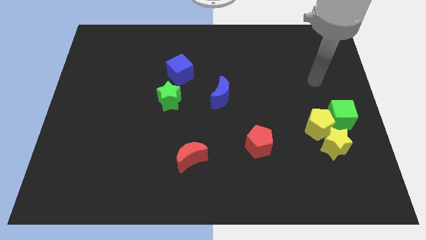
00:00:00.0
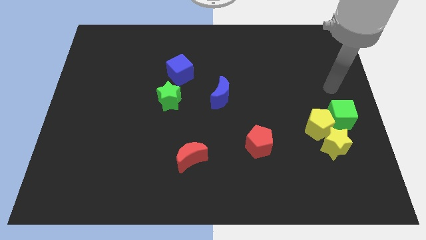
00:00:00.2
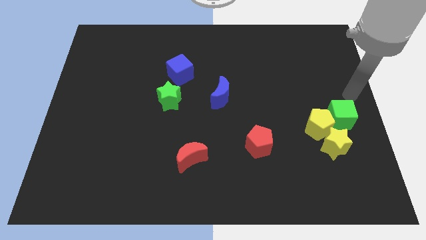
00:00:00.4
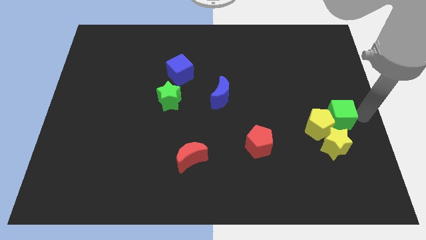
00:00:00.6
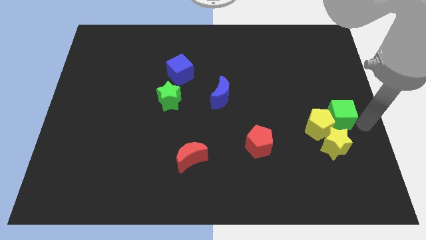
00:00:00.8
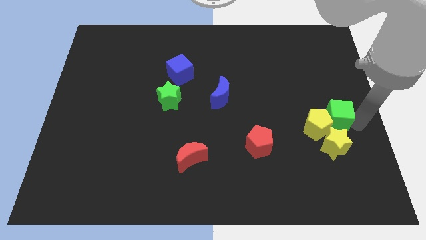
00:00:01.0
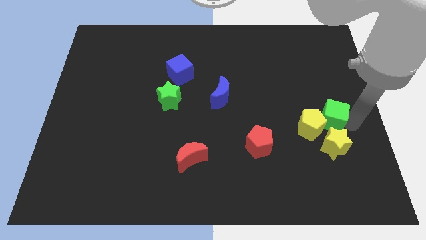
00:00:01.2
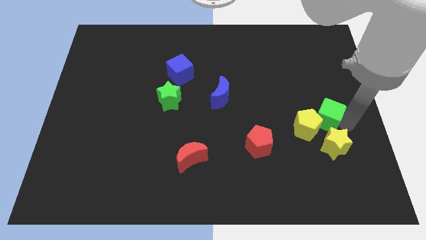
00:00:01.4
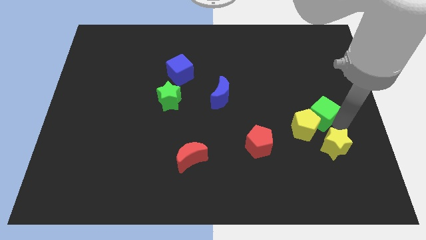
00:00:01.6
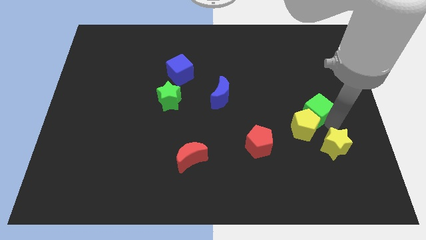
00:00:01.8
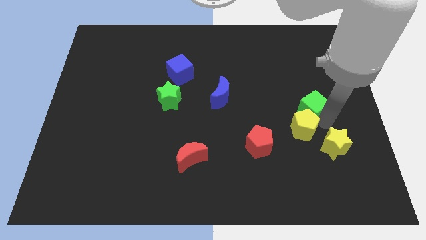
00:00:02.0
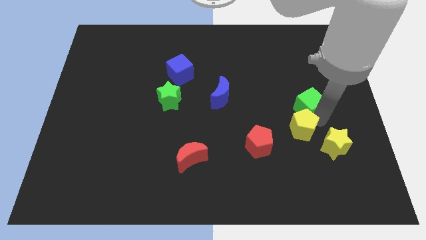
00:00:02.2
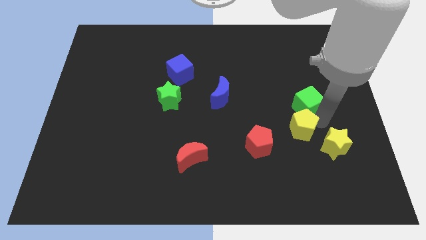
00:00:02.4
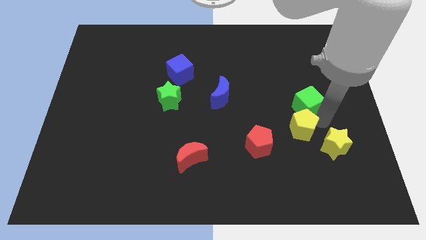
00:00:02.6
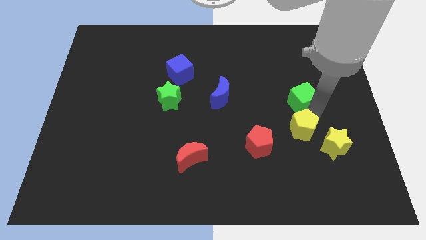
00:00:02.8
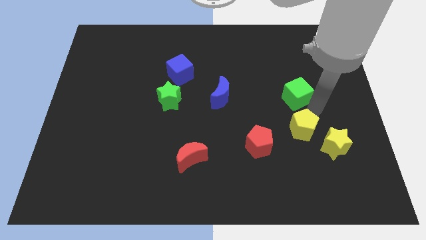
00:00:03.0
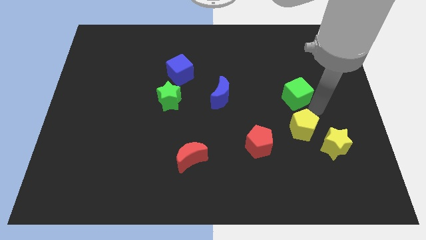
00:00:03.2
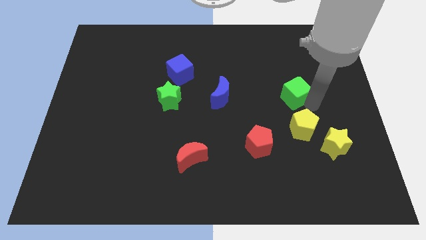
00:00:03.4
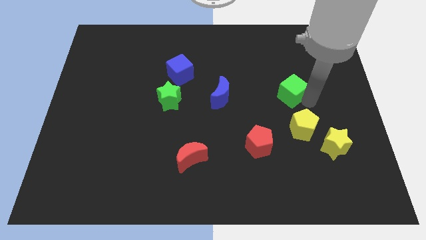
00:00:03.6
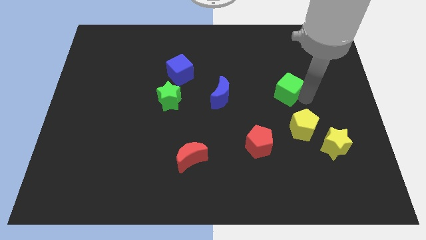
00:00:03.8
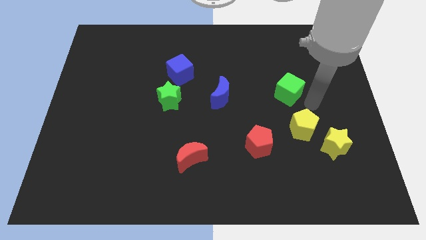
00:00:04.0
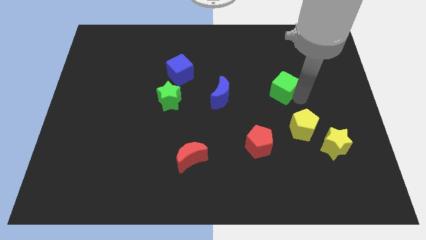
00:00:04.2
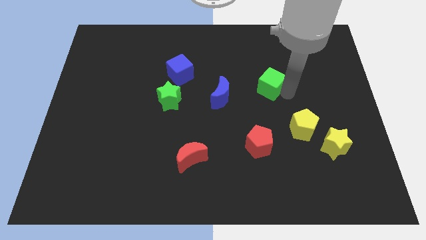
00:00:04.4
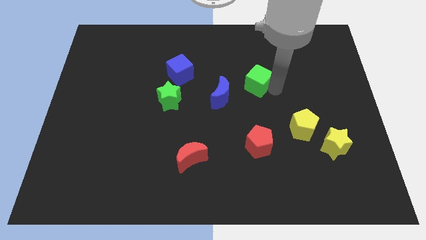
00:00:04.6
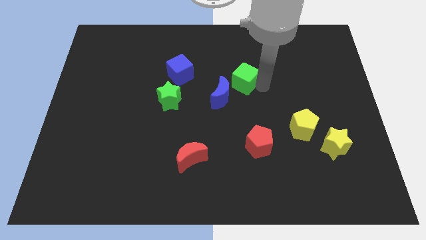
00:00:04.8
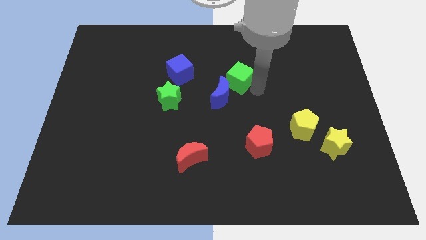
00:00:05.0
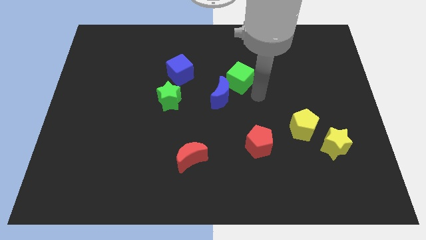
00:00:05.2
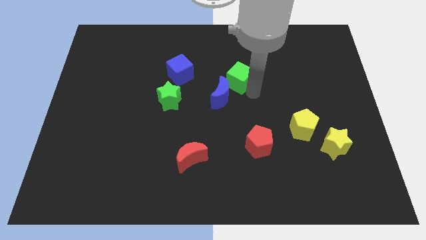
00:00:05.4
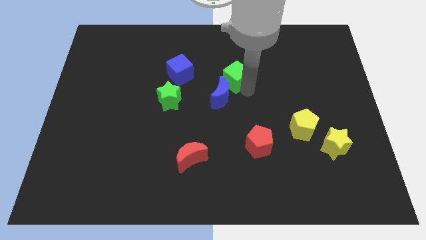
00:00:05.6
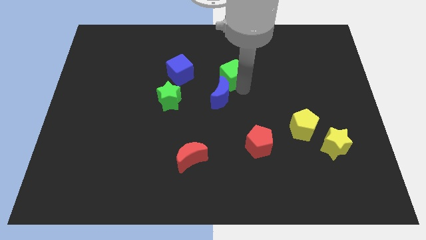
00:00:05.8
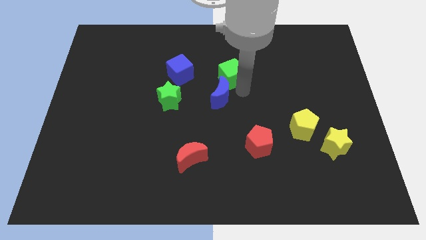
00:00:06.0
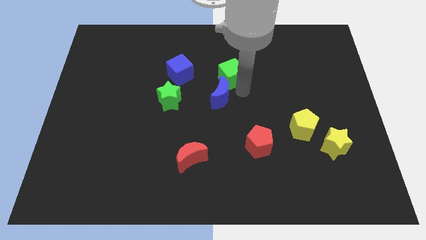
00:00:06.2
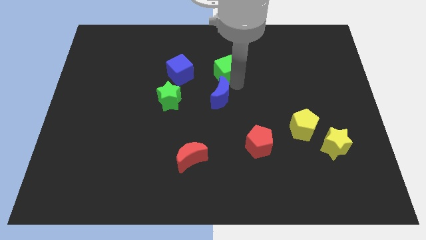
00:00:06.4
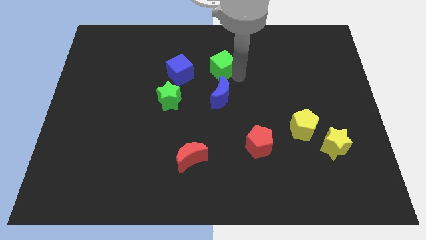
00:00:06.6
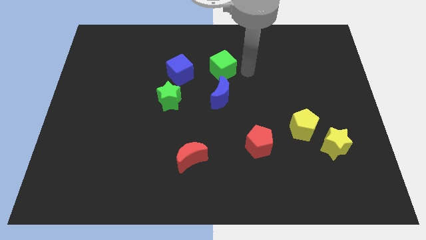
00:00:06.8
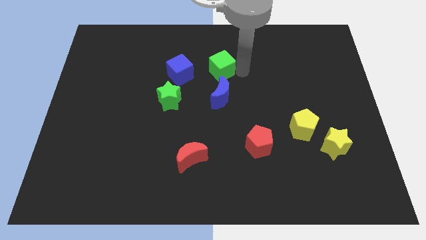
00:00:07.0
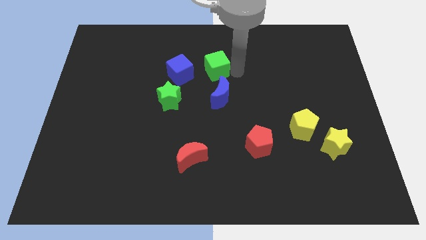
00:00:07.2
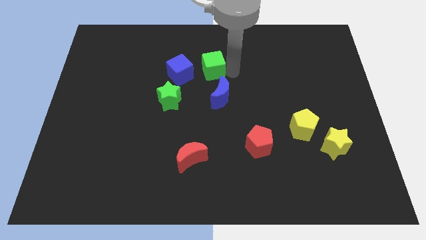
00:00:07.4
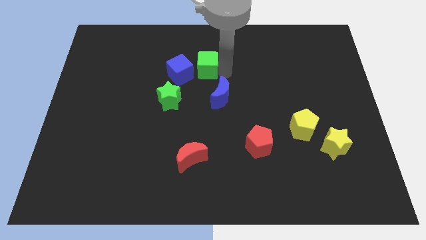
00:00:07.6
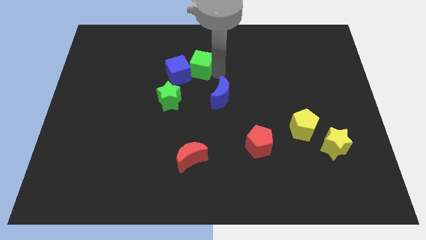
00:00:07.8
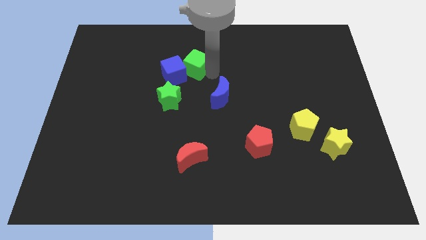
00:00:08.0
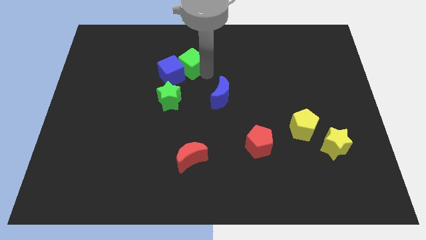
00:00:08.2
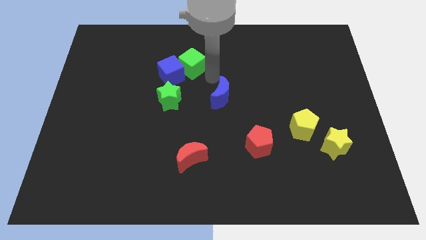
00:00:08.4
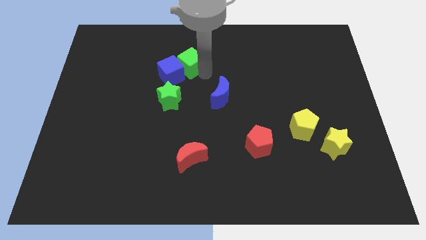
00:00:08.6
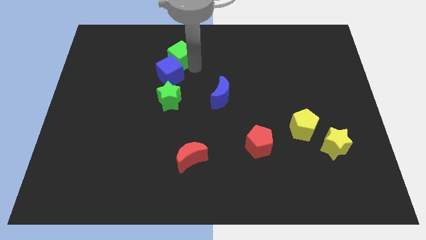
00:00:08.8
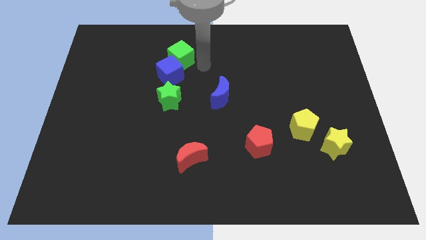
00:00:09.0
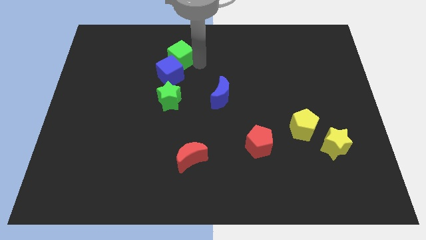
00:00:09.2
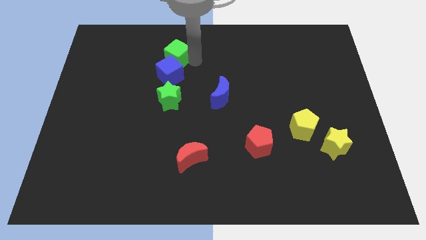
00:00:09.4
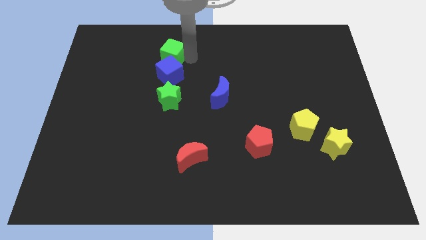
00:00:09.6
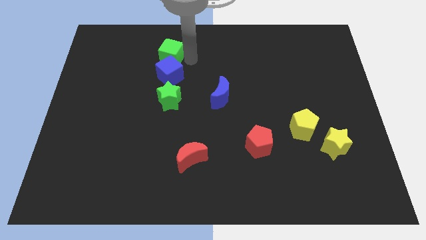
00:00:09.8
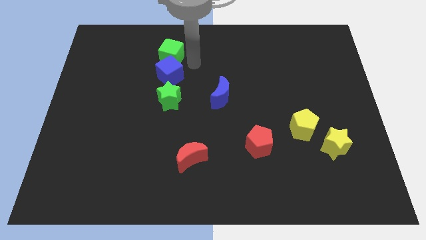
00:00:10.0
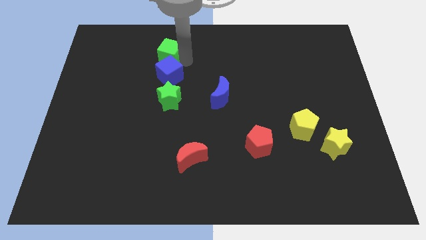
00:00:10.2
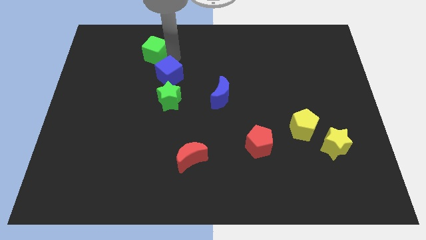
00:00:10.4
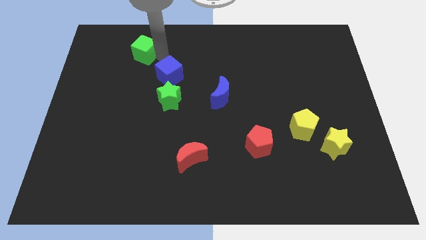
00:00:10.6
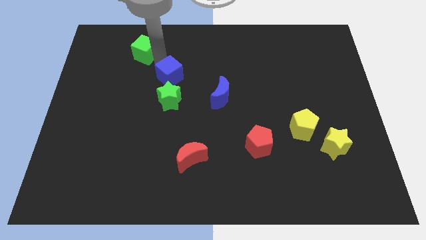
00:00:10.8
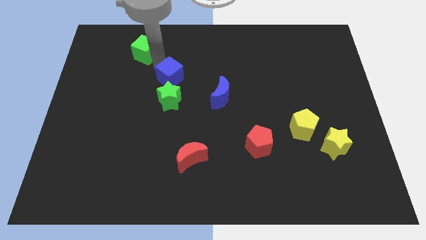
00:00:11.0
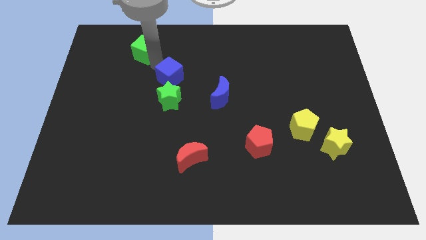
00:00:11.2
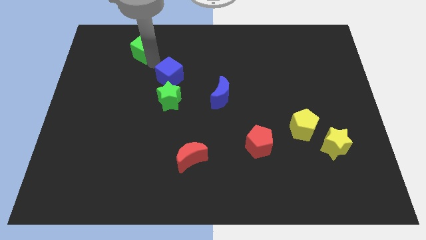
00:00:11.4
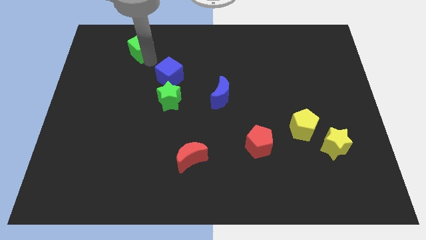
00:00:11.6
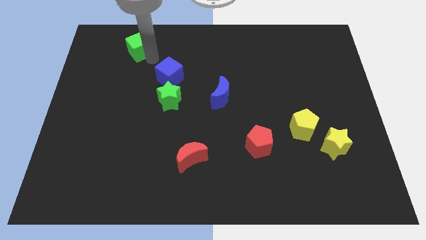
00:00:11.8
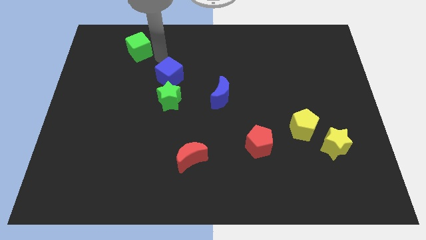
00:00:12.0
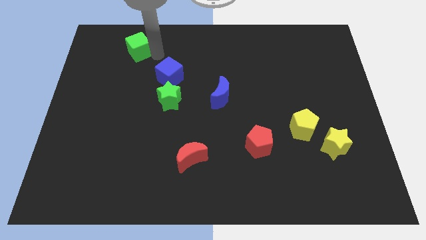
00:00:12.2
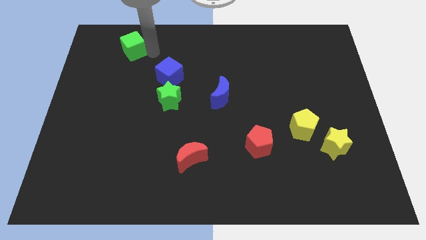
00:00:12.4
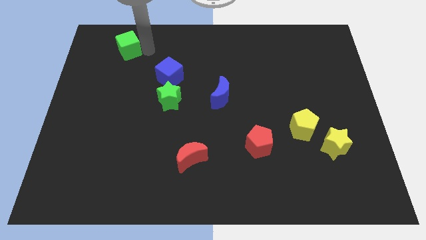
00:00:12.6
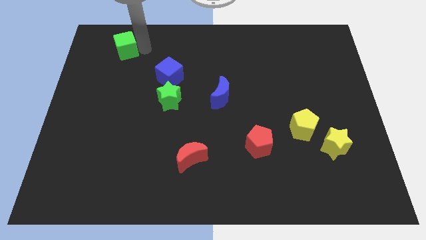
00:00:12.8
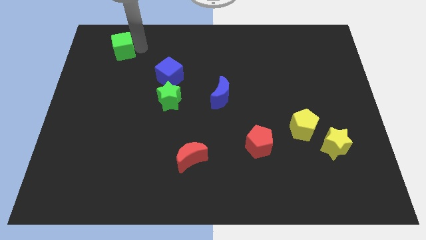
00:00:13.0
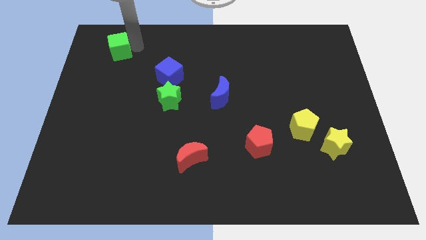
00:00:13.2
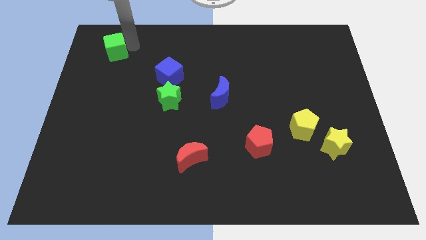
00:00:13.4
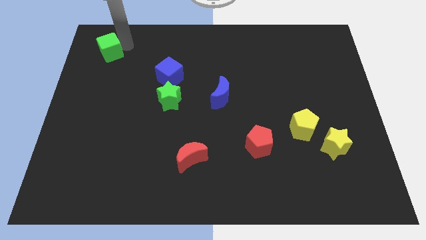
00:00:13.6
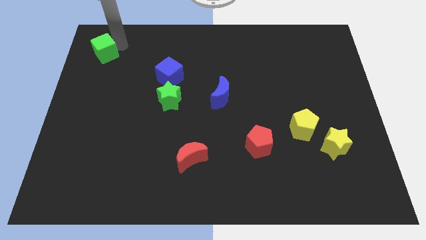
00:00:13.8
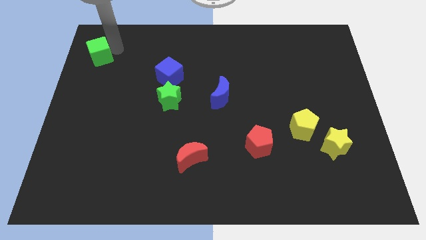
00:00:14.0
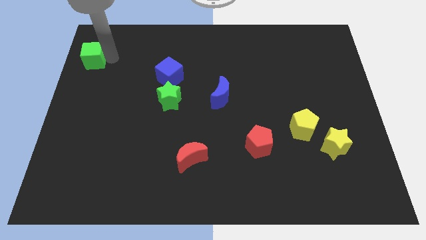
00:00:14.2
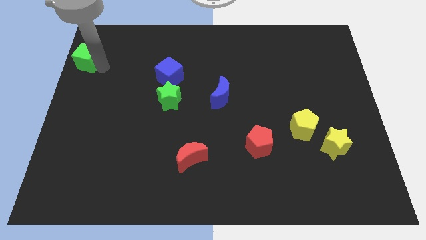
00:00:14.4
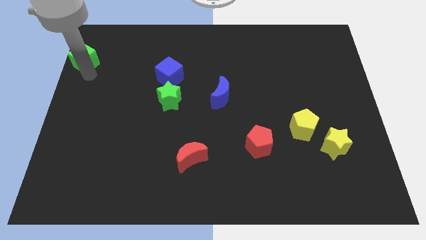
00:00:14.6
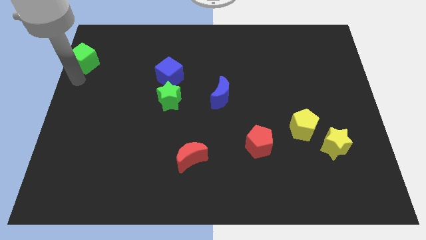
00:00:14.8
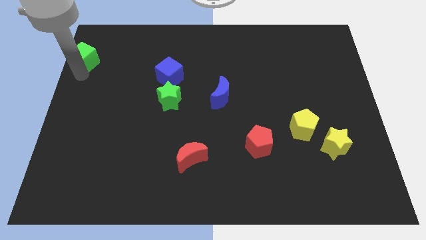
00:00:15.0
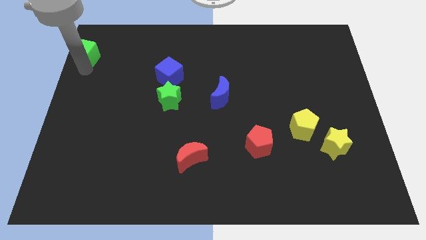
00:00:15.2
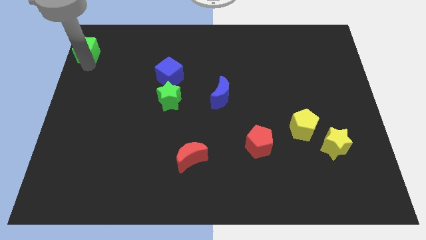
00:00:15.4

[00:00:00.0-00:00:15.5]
push the green cube to the upper left corner
